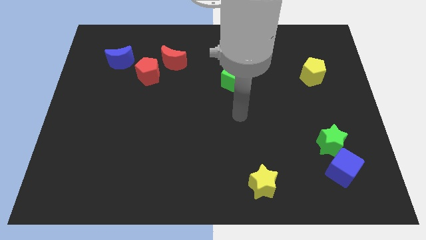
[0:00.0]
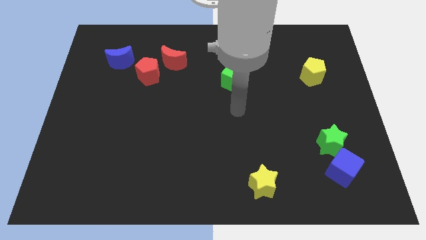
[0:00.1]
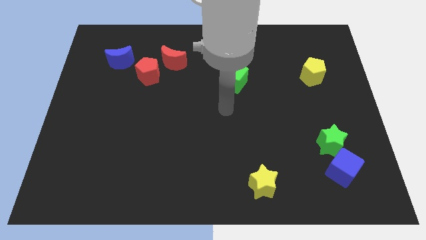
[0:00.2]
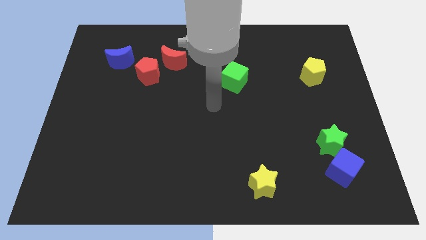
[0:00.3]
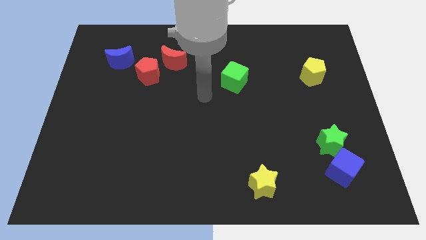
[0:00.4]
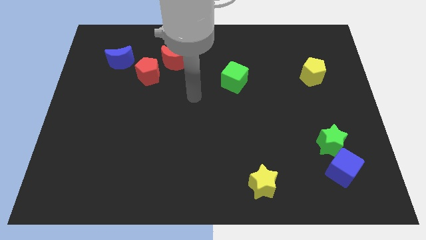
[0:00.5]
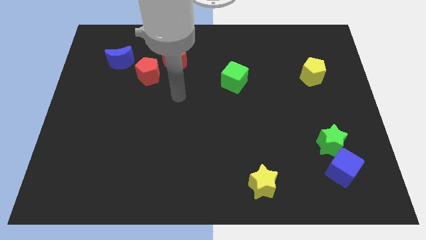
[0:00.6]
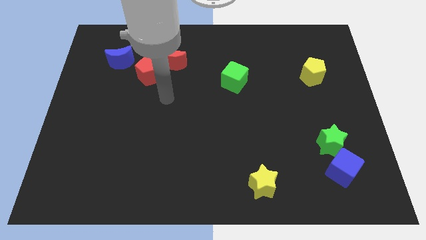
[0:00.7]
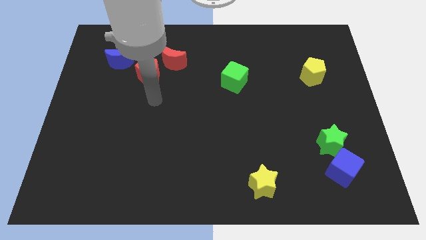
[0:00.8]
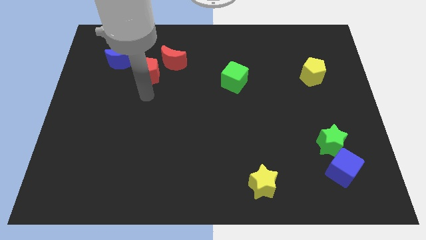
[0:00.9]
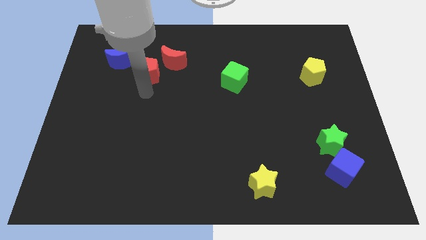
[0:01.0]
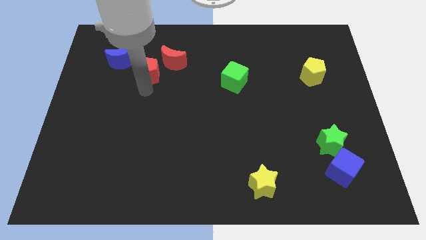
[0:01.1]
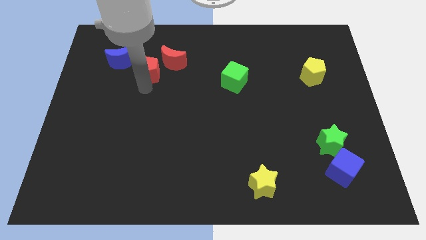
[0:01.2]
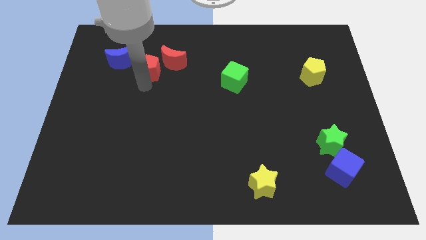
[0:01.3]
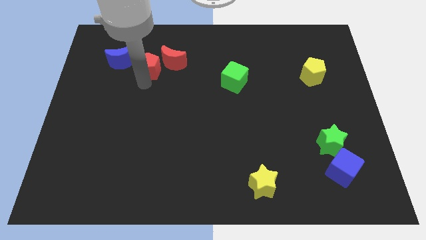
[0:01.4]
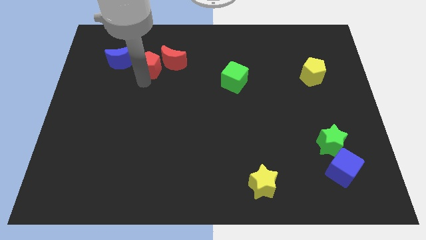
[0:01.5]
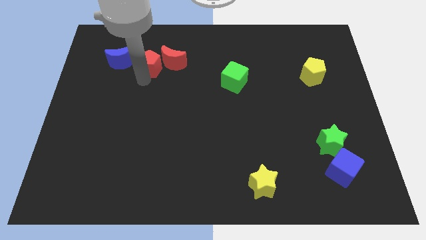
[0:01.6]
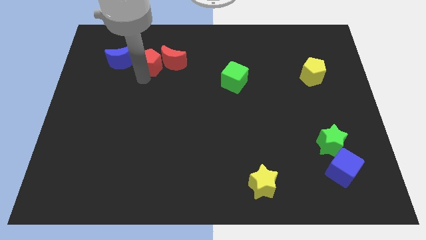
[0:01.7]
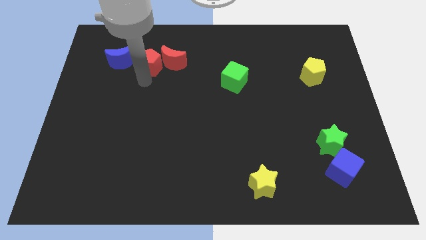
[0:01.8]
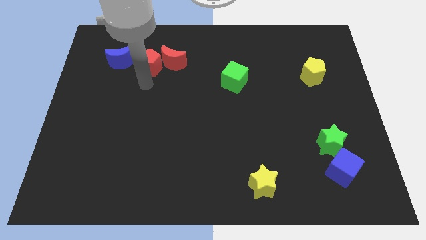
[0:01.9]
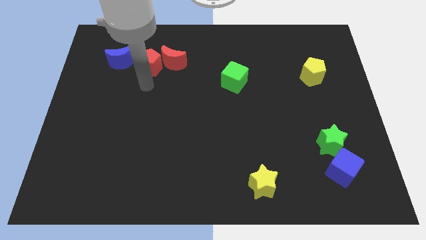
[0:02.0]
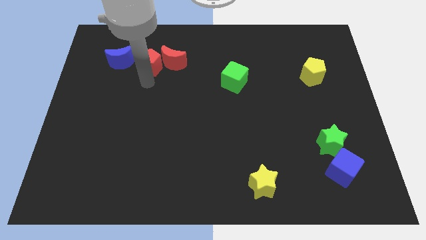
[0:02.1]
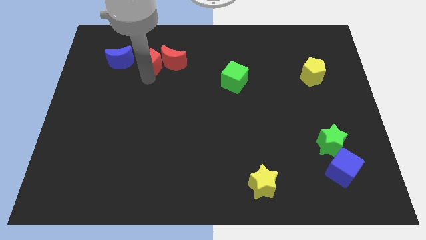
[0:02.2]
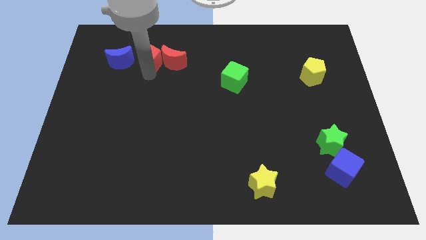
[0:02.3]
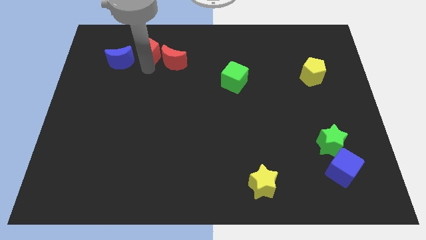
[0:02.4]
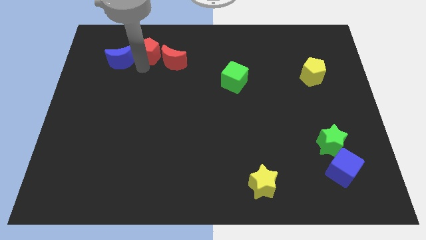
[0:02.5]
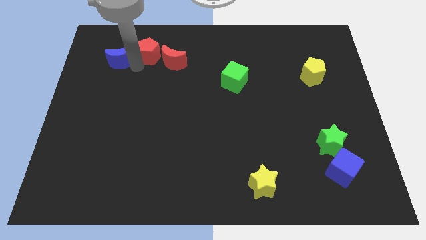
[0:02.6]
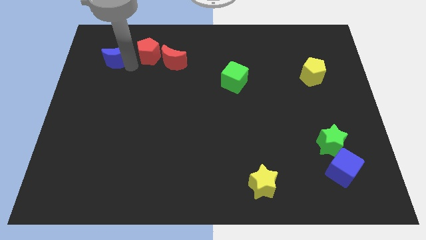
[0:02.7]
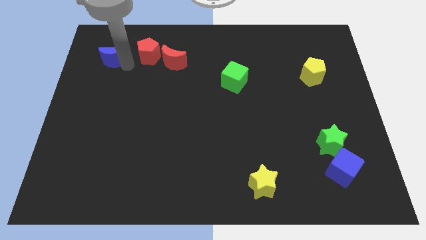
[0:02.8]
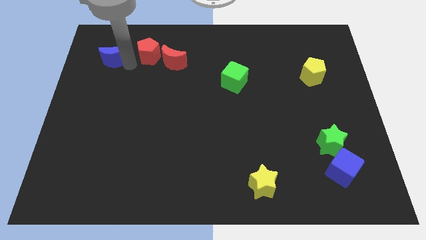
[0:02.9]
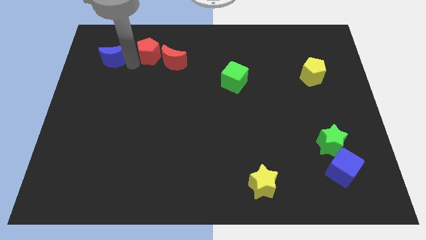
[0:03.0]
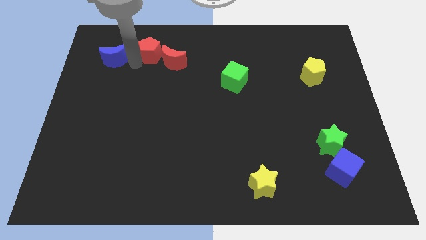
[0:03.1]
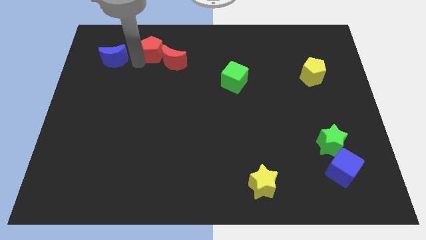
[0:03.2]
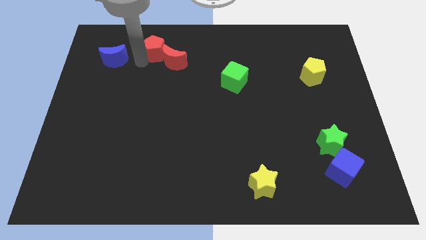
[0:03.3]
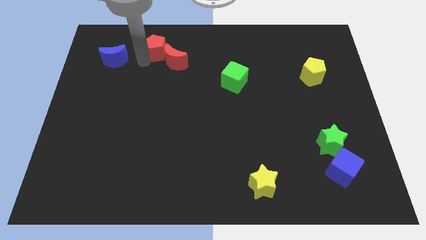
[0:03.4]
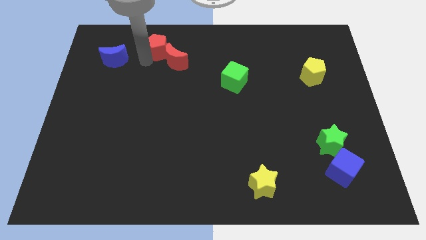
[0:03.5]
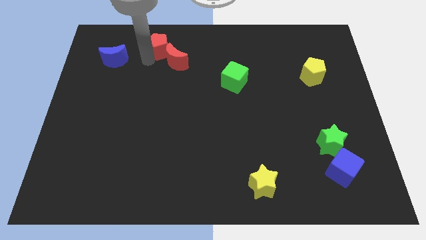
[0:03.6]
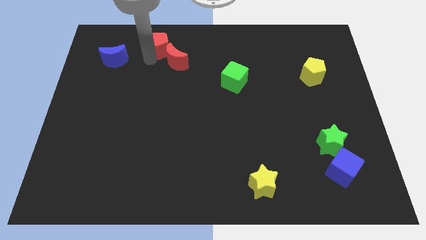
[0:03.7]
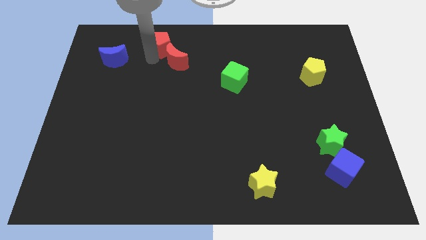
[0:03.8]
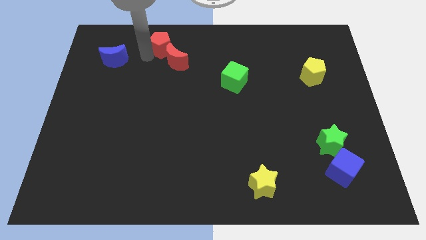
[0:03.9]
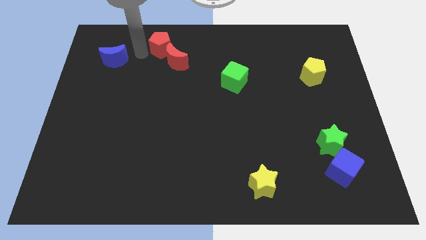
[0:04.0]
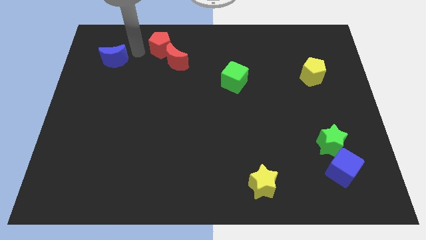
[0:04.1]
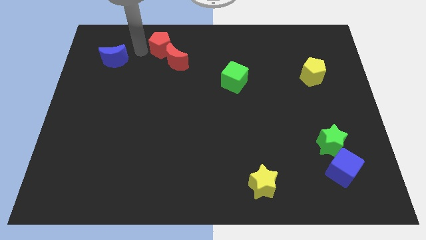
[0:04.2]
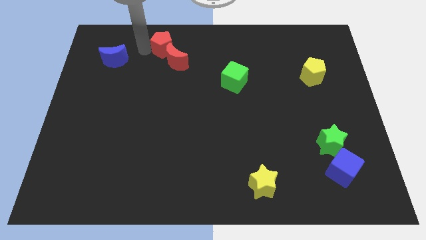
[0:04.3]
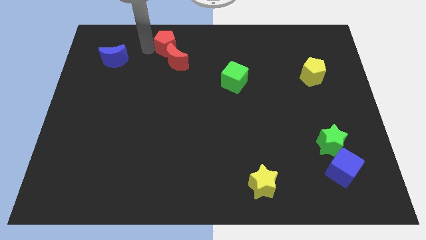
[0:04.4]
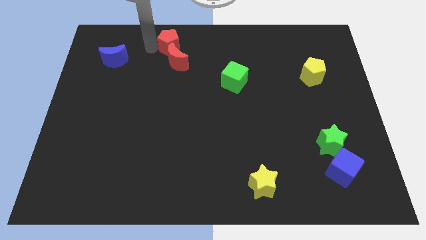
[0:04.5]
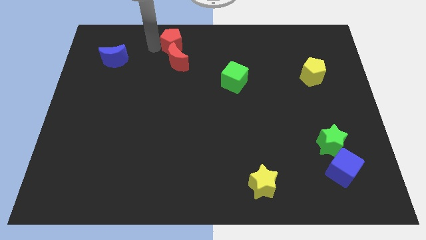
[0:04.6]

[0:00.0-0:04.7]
slide the red pentagon to the towards your base

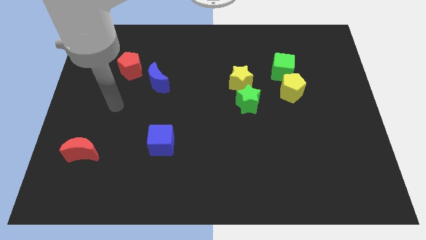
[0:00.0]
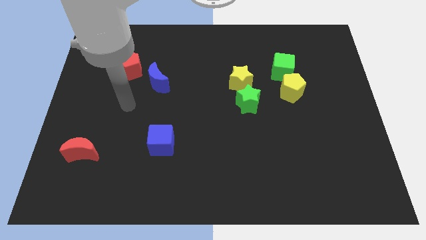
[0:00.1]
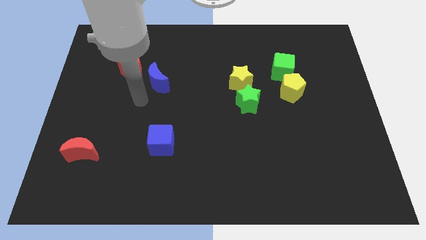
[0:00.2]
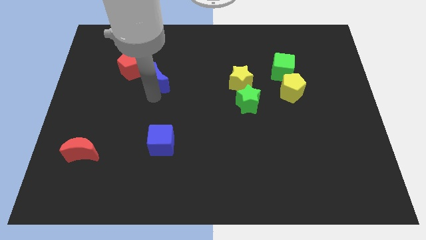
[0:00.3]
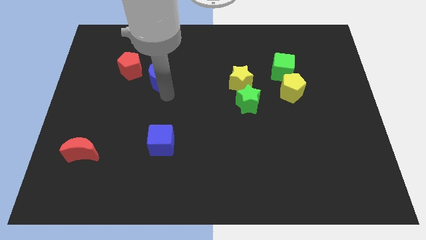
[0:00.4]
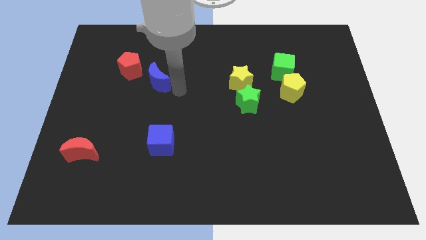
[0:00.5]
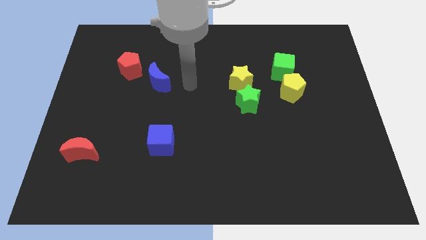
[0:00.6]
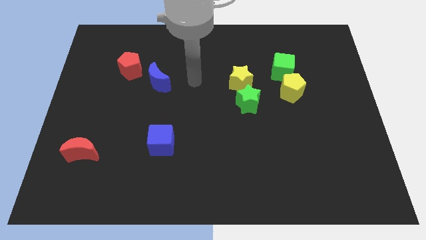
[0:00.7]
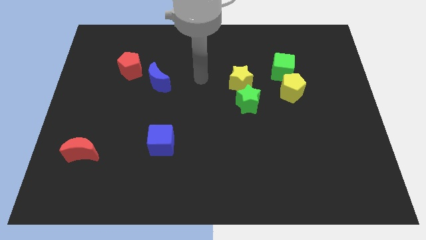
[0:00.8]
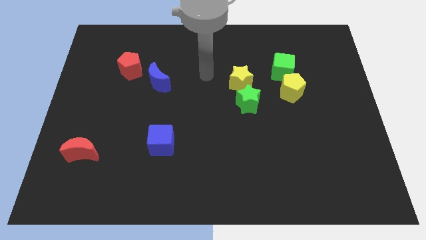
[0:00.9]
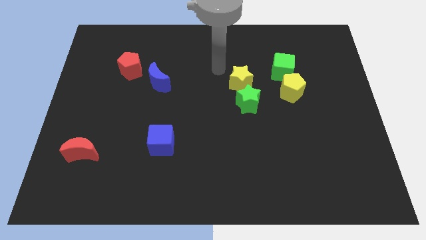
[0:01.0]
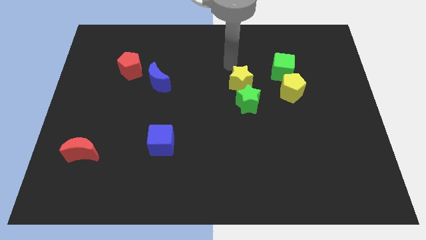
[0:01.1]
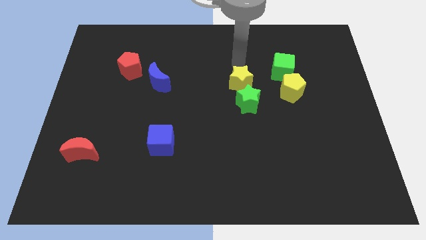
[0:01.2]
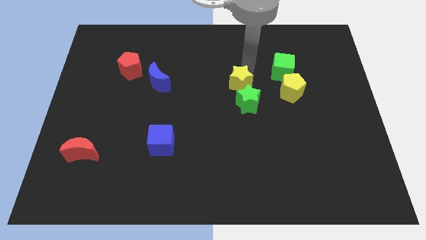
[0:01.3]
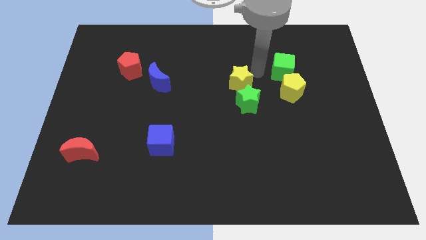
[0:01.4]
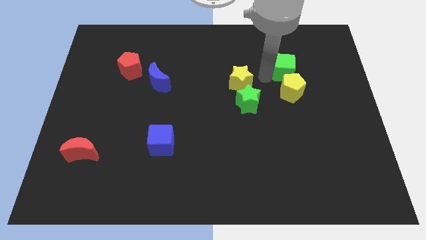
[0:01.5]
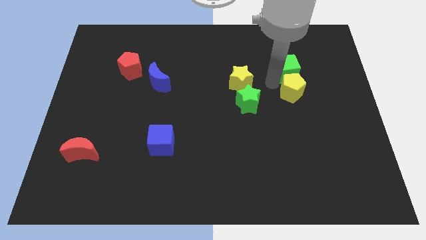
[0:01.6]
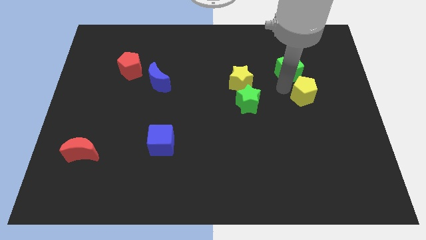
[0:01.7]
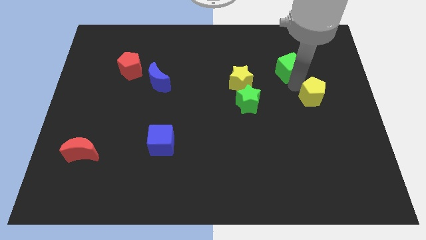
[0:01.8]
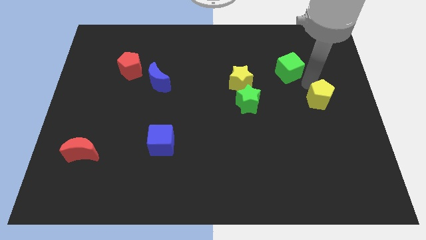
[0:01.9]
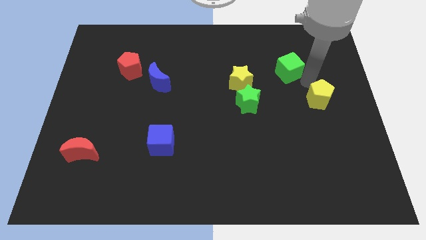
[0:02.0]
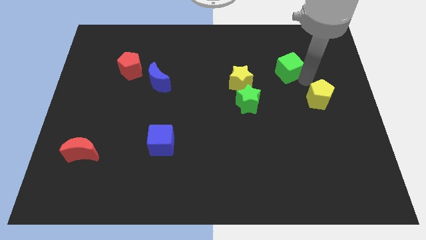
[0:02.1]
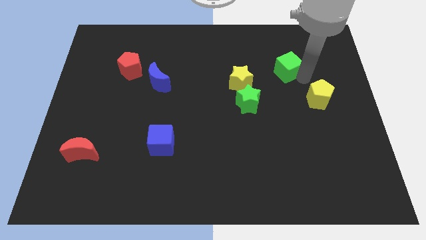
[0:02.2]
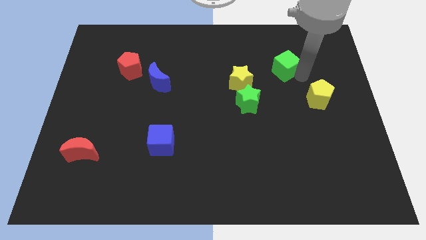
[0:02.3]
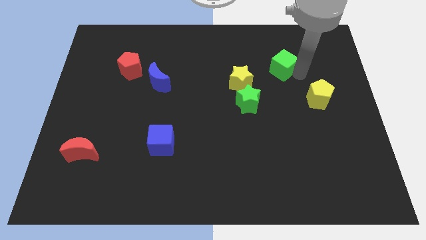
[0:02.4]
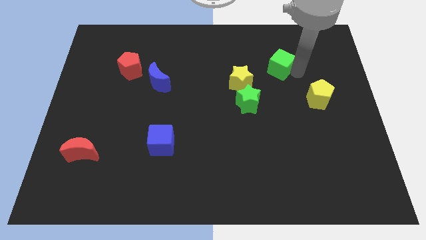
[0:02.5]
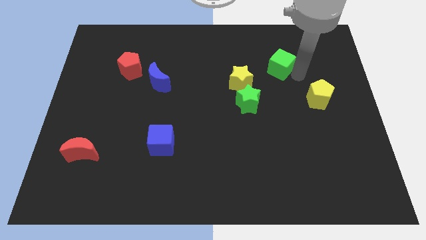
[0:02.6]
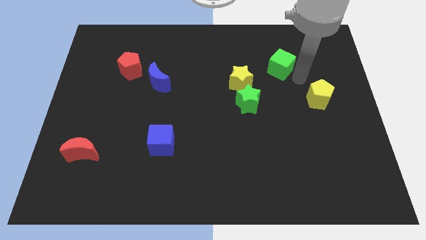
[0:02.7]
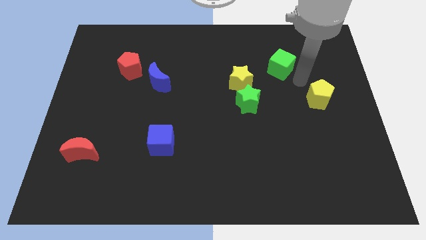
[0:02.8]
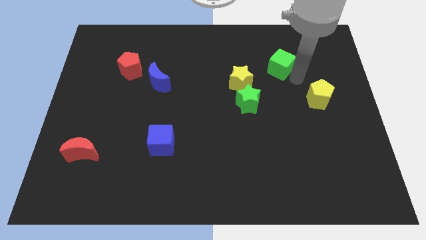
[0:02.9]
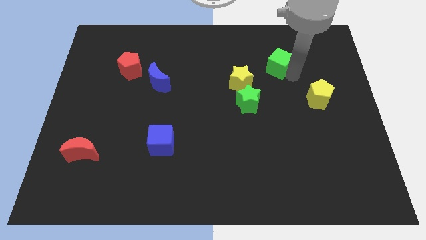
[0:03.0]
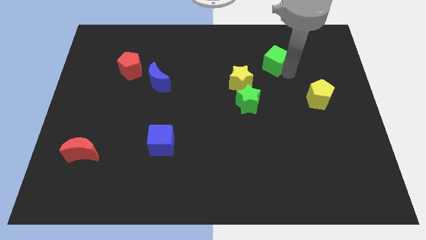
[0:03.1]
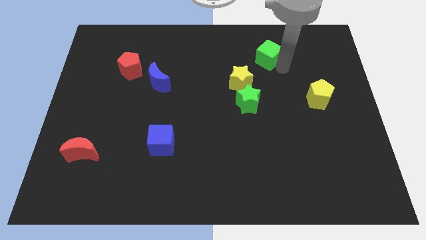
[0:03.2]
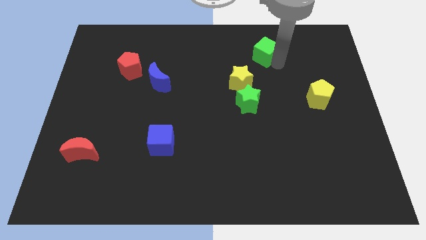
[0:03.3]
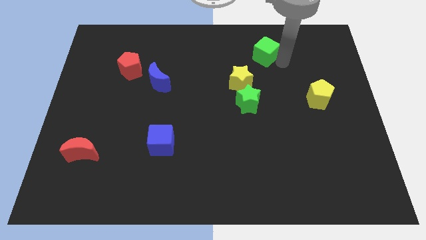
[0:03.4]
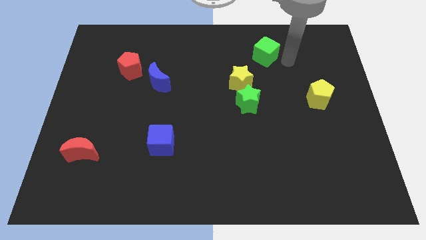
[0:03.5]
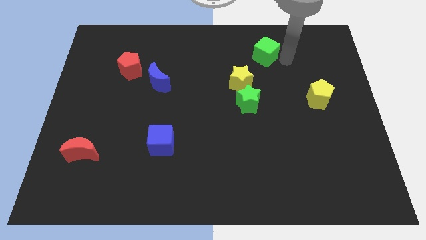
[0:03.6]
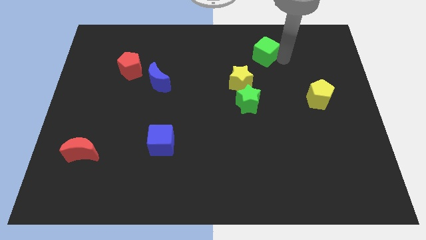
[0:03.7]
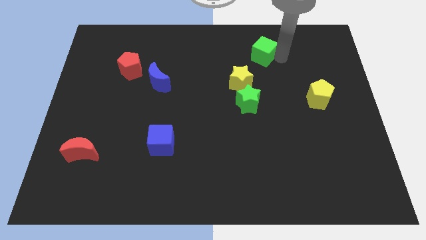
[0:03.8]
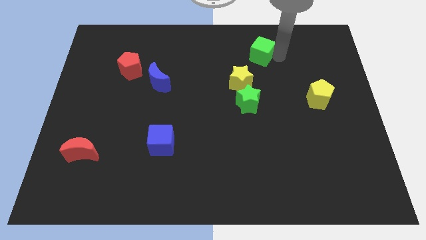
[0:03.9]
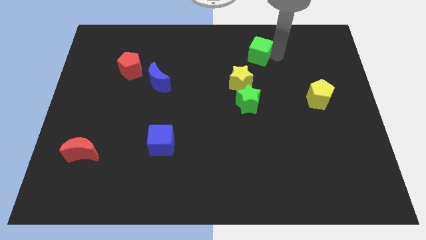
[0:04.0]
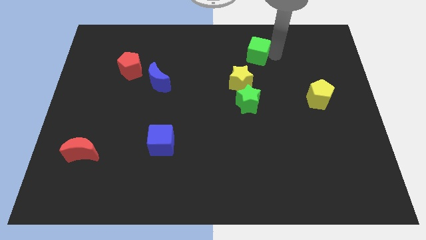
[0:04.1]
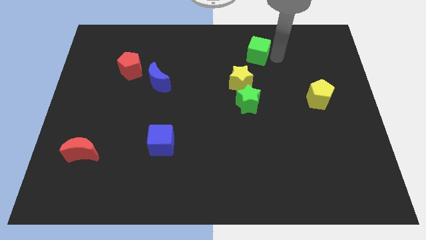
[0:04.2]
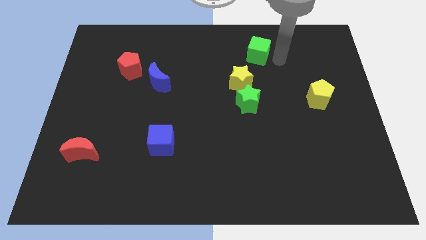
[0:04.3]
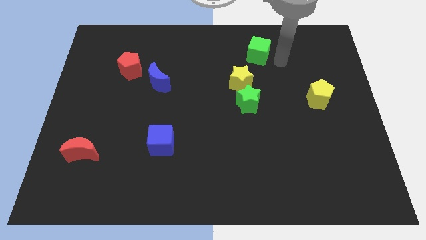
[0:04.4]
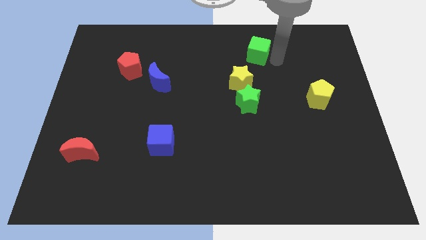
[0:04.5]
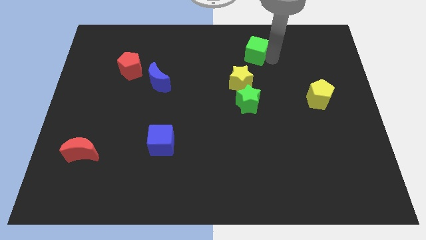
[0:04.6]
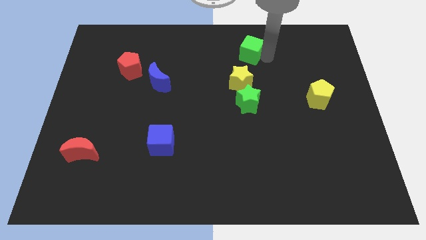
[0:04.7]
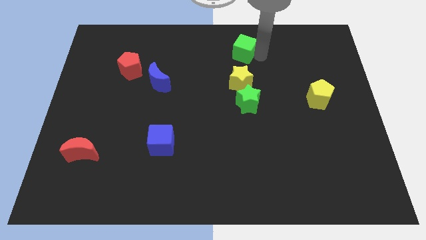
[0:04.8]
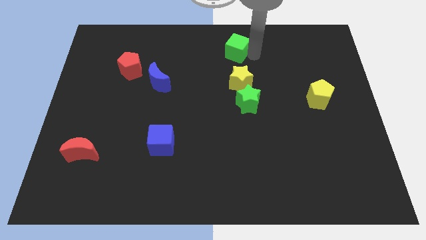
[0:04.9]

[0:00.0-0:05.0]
push the green cube to the towards your base
